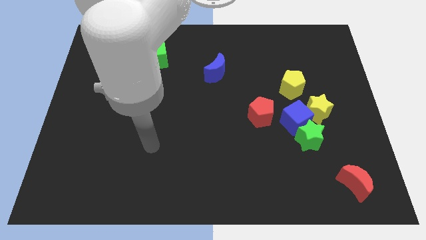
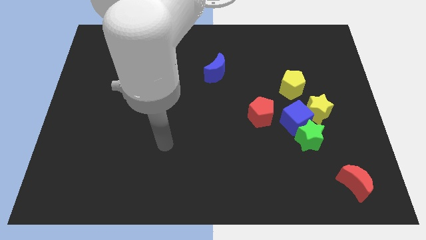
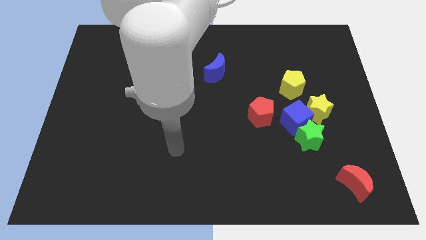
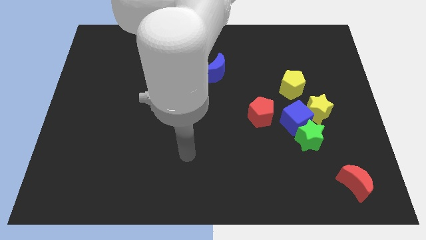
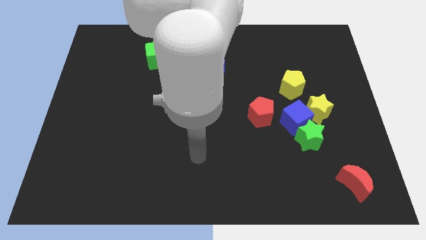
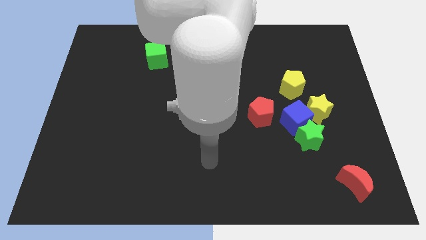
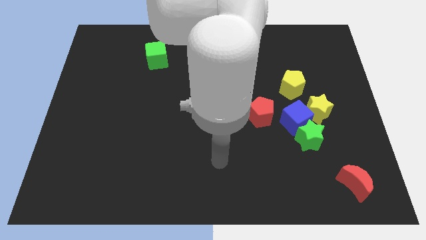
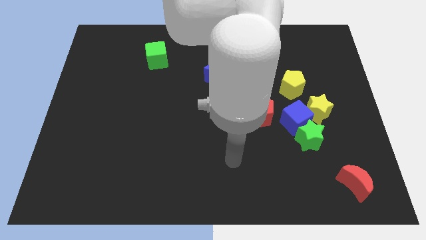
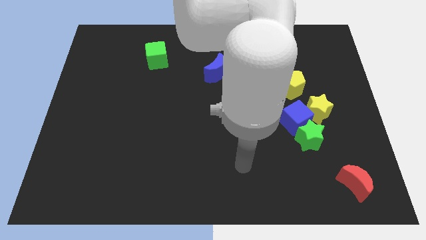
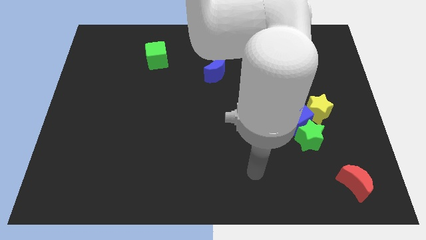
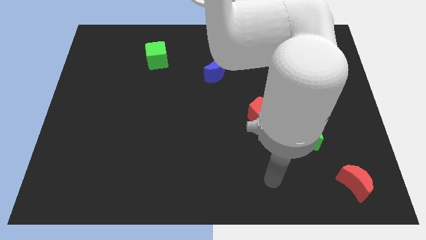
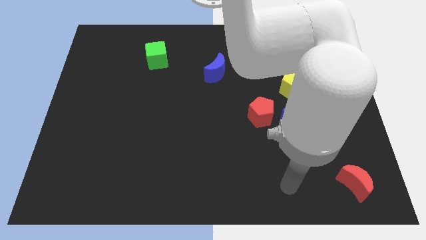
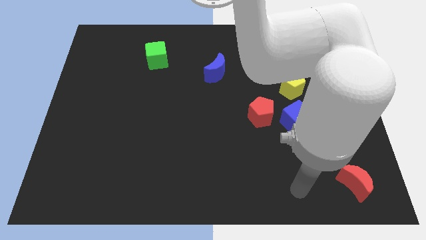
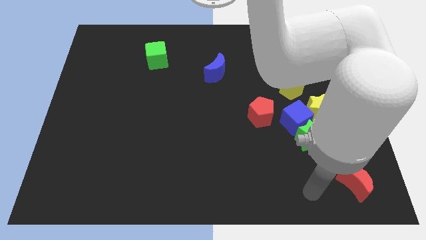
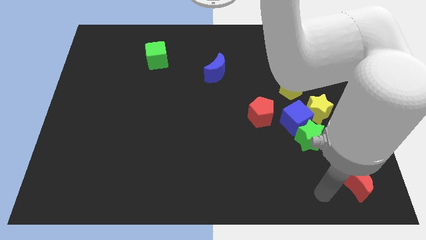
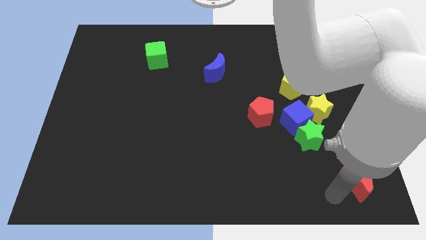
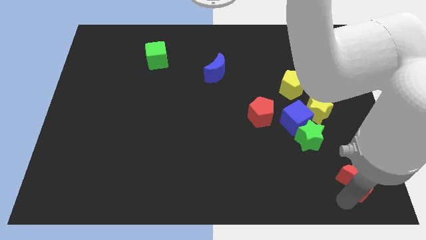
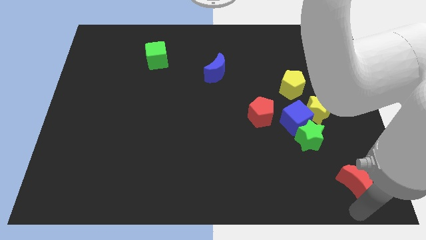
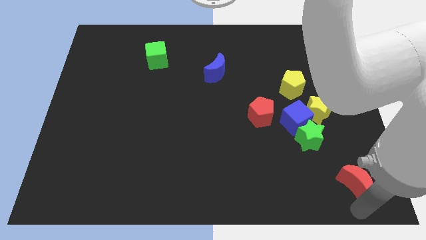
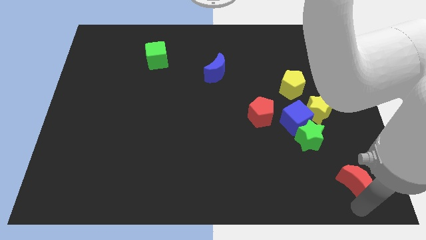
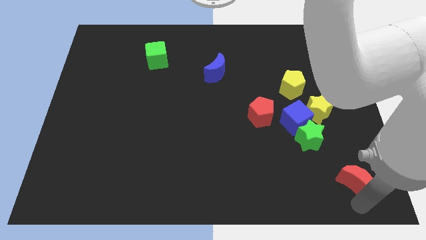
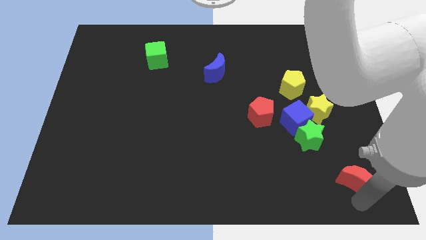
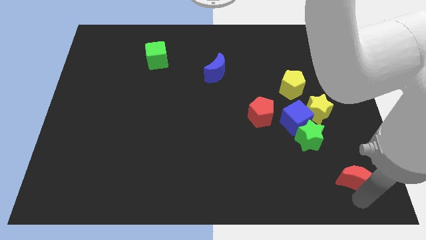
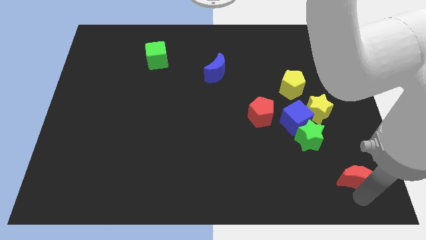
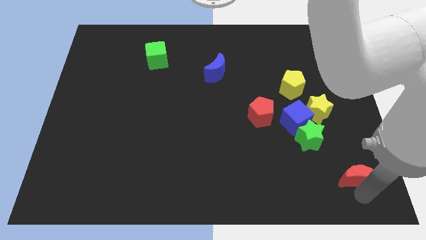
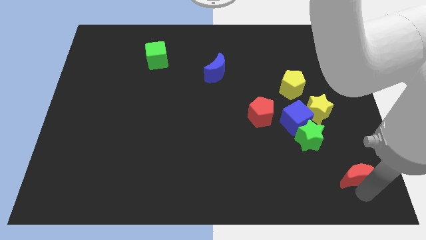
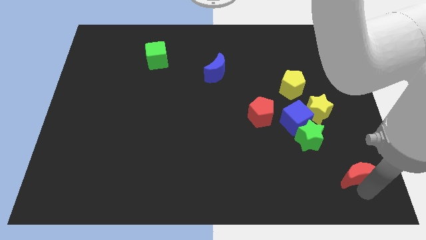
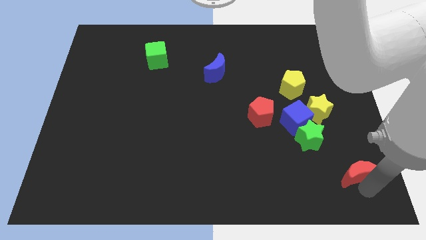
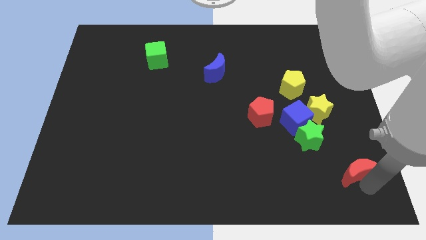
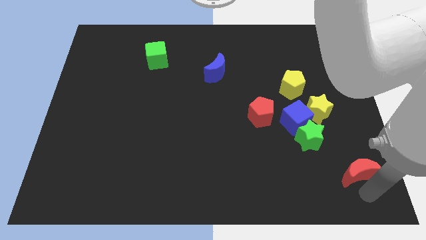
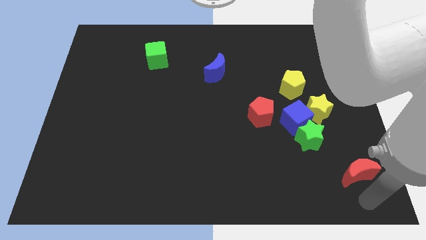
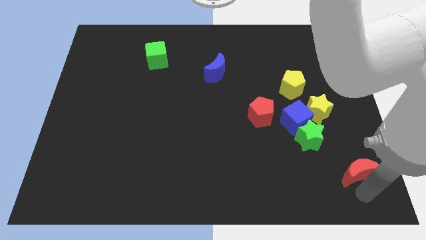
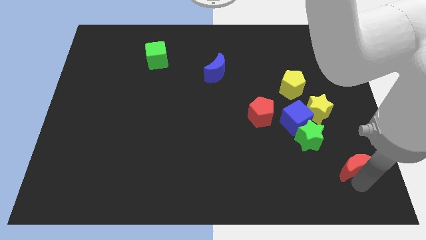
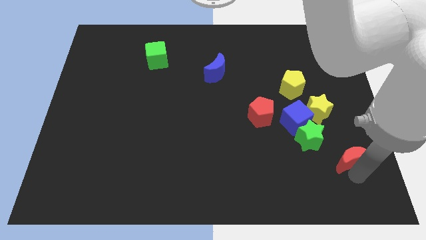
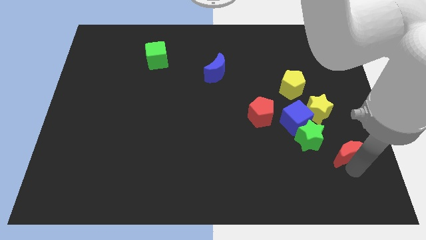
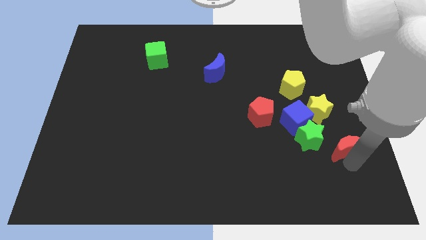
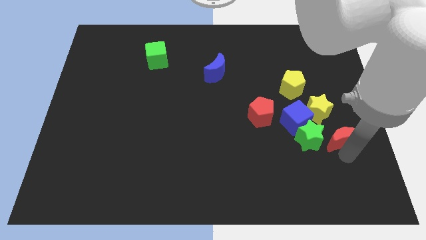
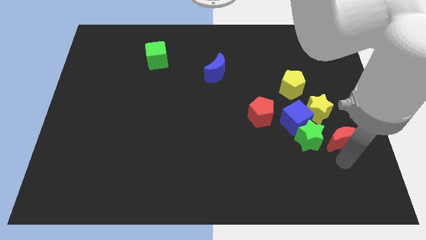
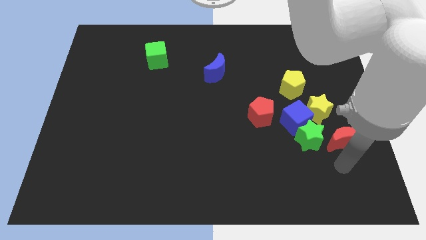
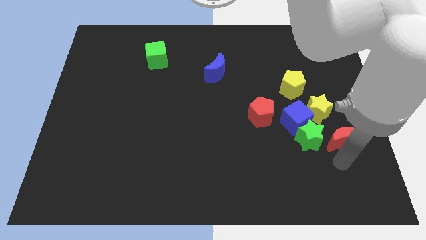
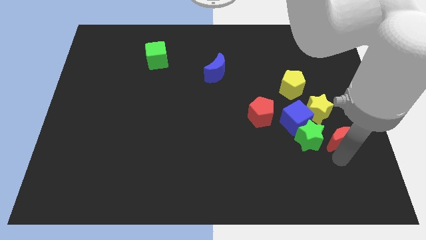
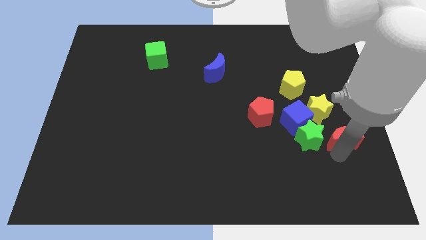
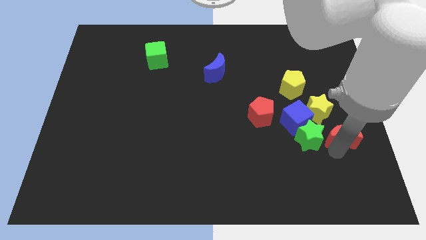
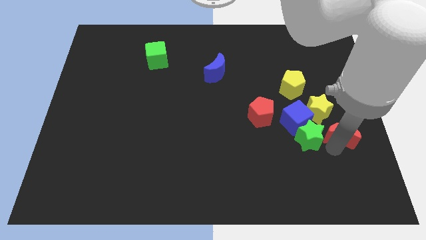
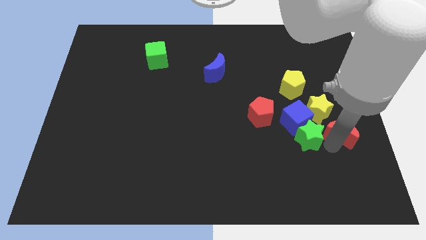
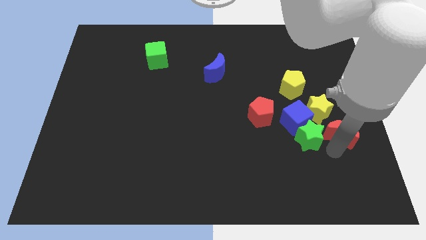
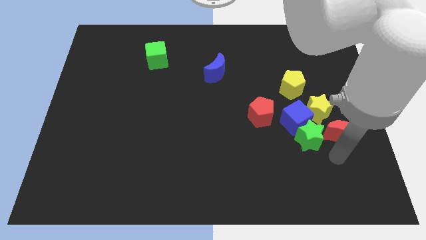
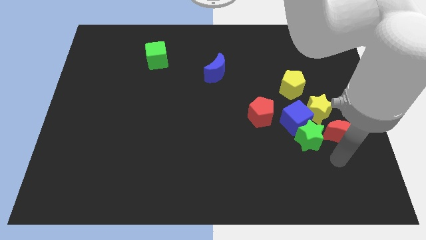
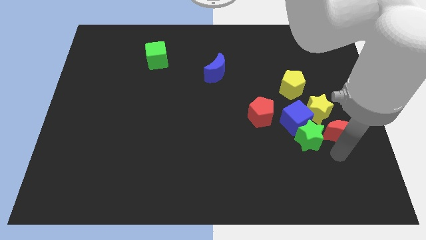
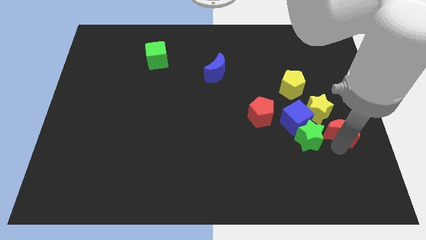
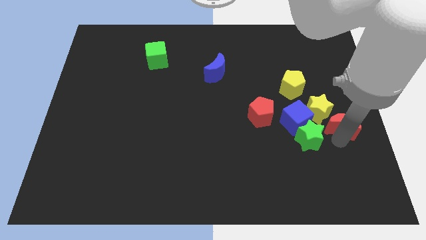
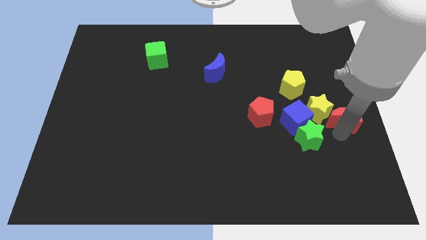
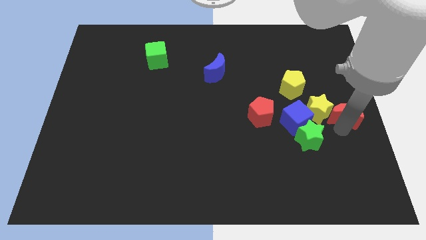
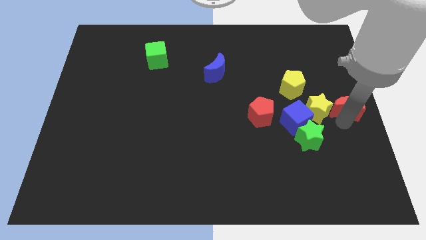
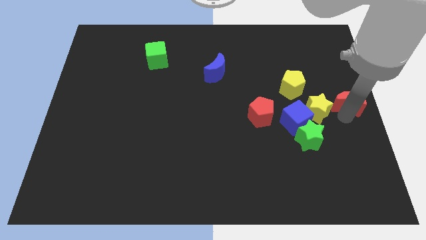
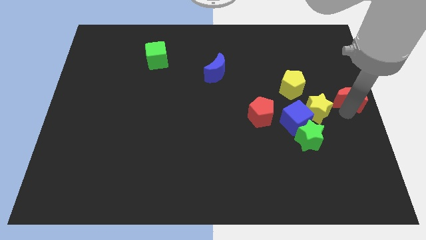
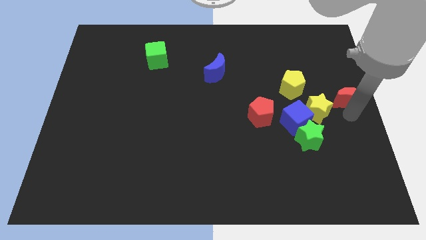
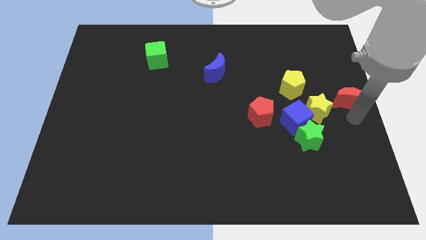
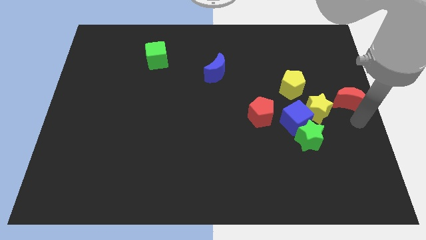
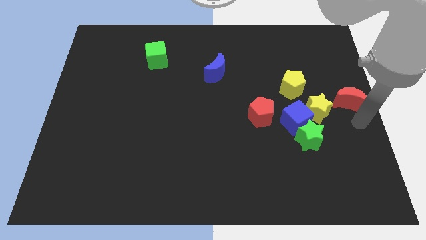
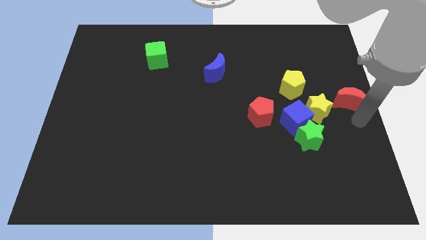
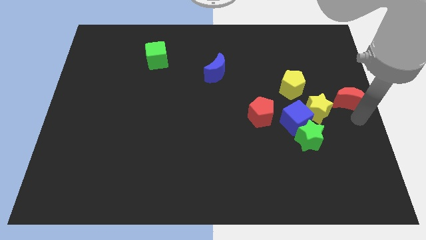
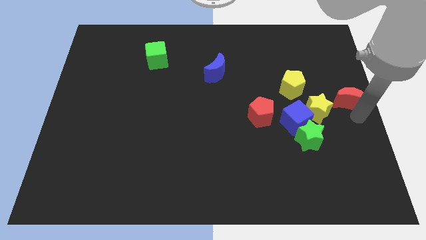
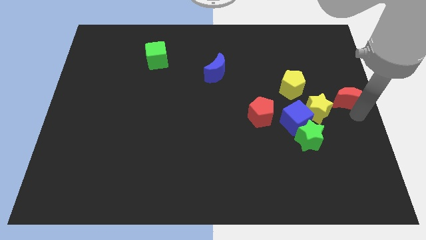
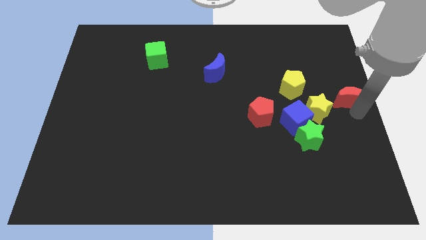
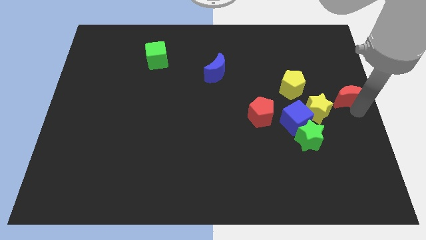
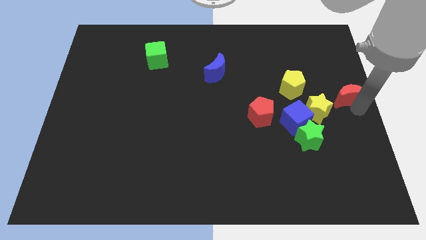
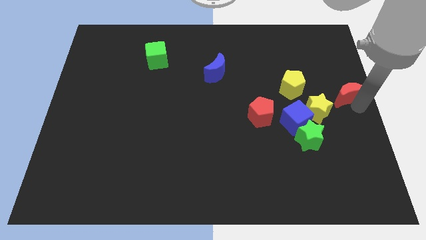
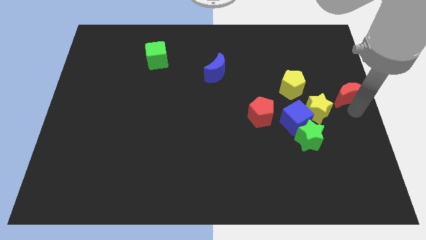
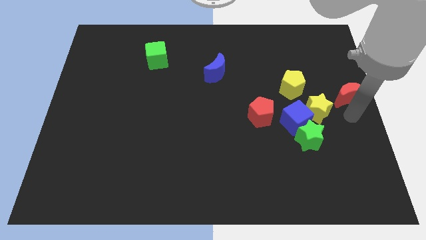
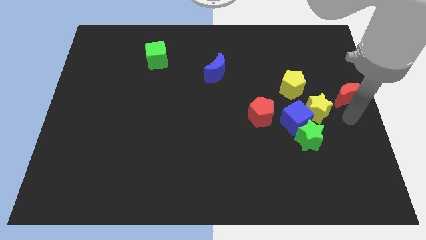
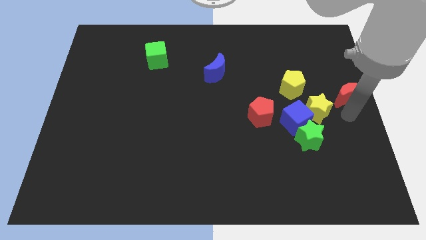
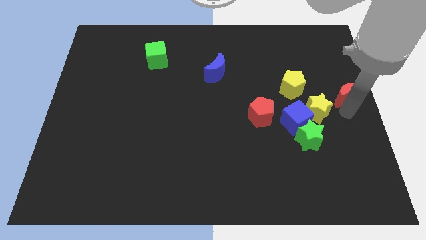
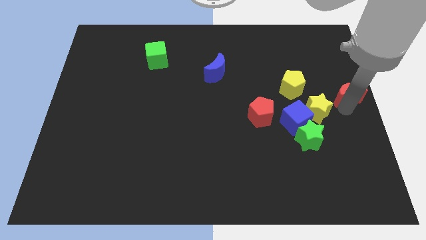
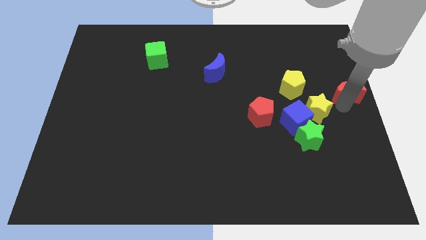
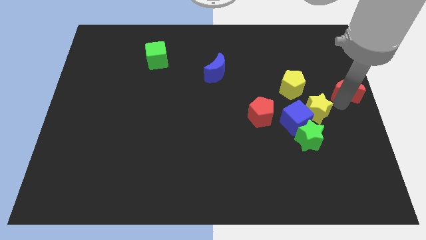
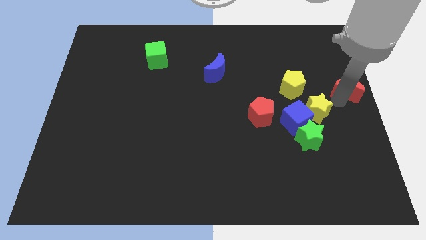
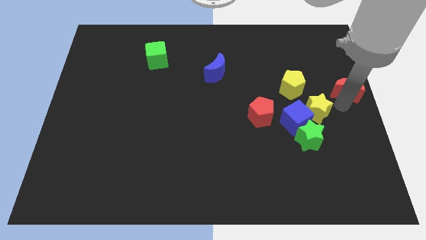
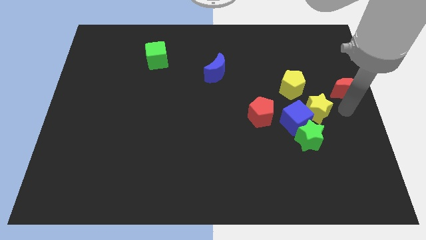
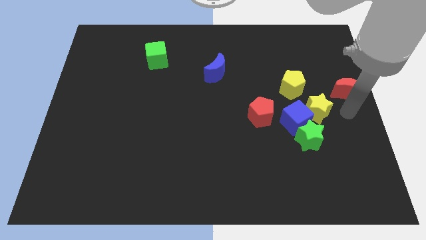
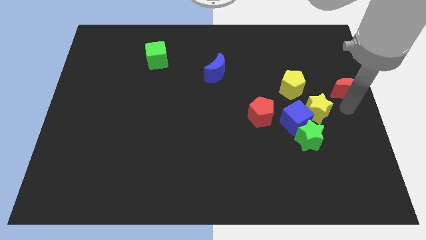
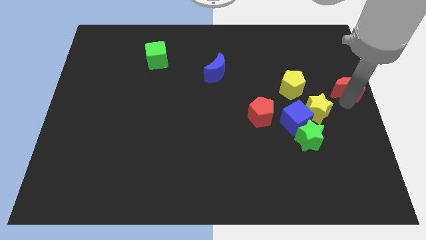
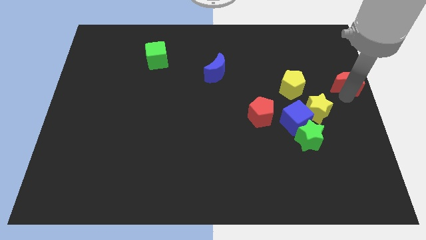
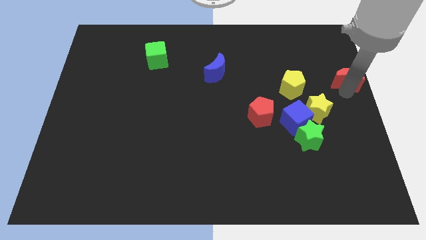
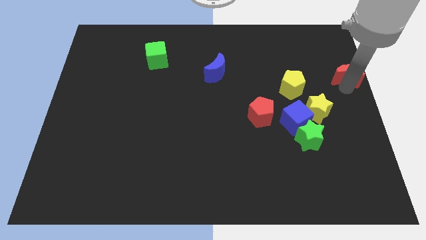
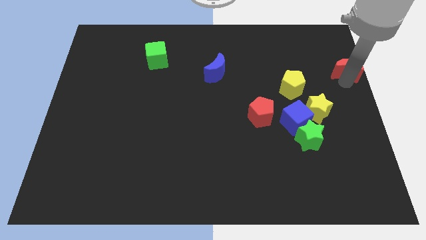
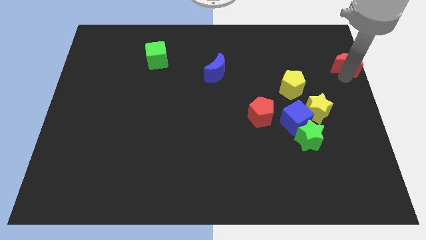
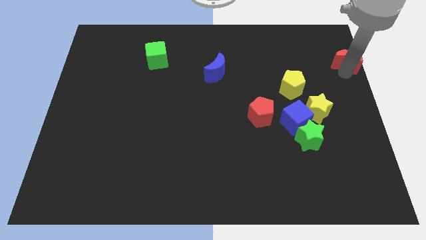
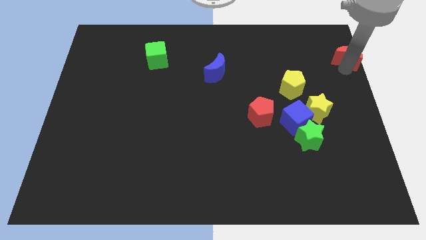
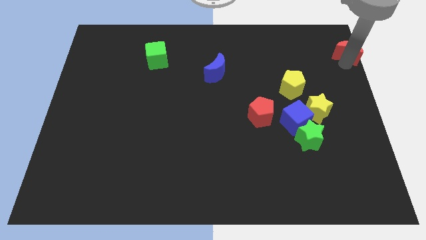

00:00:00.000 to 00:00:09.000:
slide the red moon to the top right corner
